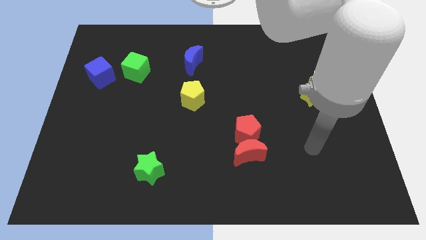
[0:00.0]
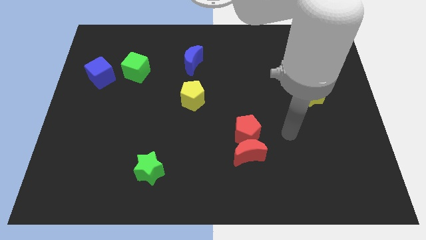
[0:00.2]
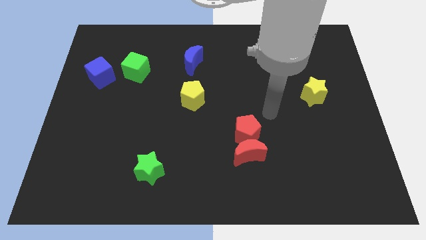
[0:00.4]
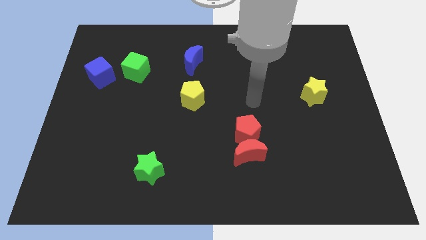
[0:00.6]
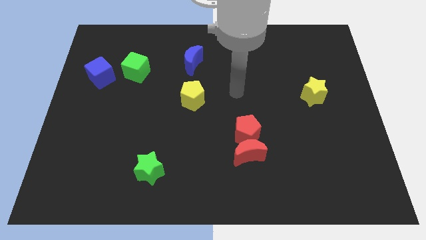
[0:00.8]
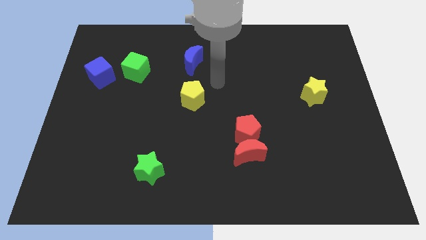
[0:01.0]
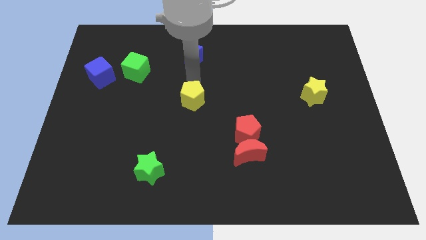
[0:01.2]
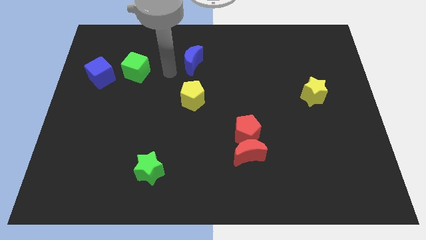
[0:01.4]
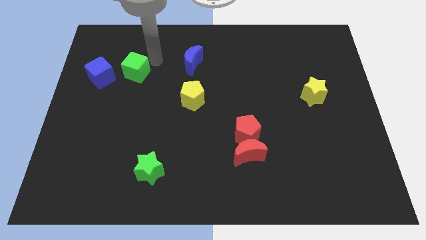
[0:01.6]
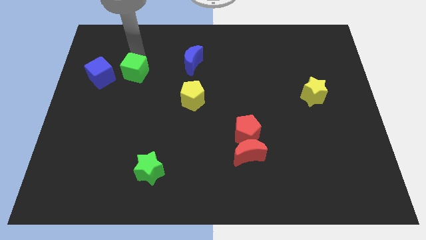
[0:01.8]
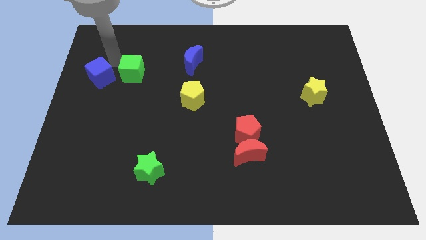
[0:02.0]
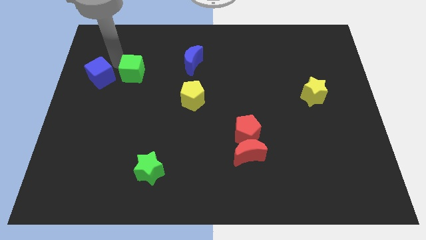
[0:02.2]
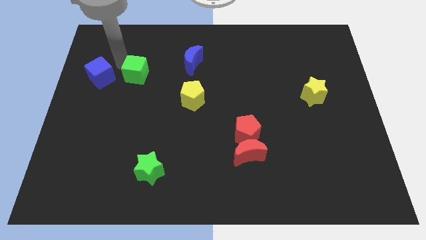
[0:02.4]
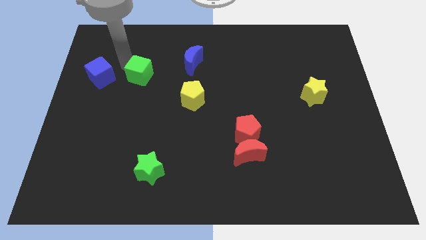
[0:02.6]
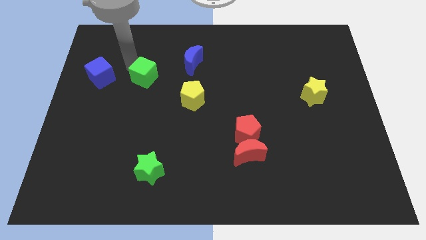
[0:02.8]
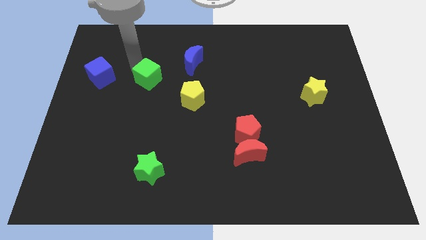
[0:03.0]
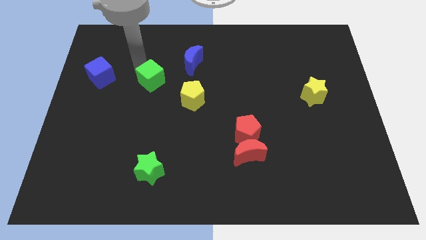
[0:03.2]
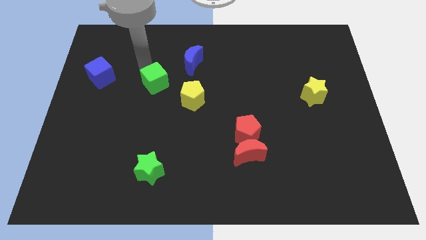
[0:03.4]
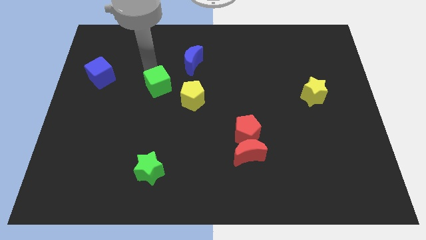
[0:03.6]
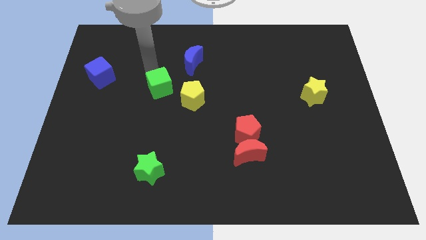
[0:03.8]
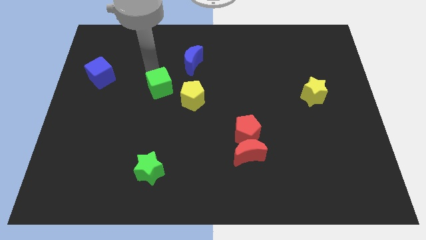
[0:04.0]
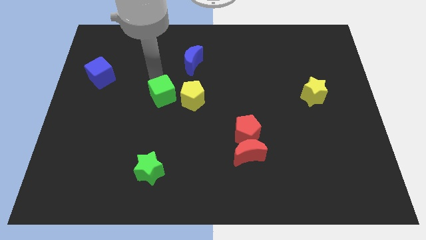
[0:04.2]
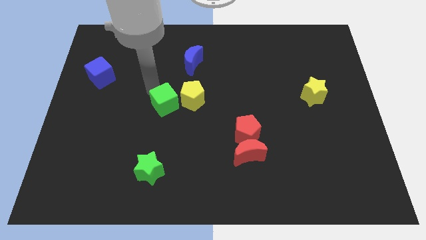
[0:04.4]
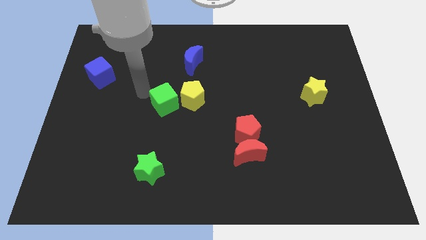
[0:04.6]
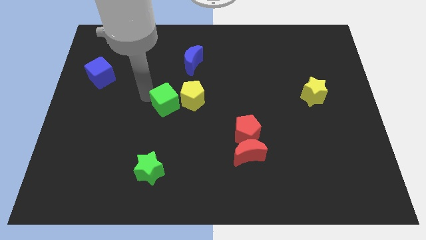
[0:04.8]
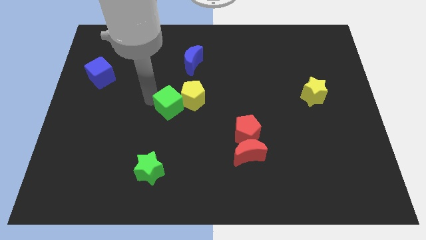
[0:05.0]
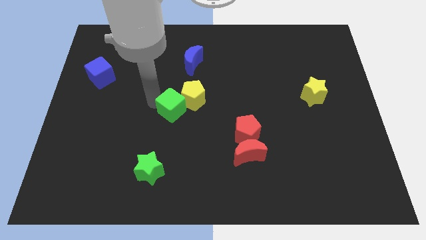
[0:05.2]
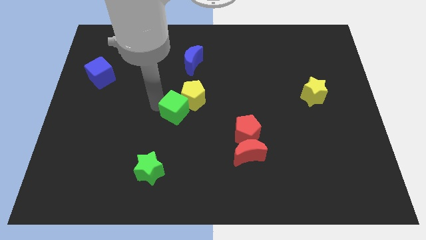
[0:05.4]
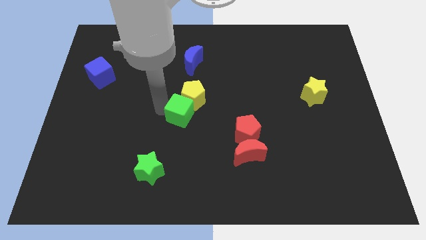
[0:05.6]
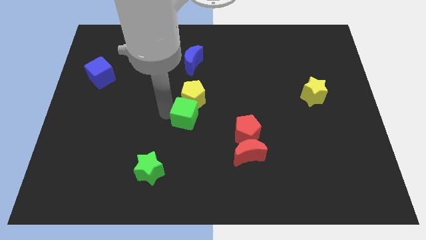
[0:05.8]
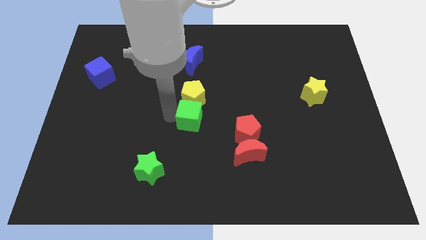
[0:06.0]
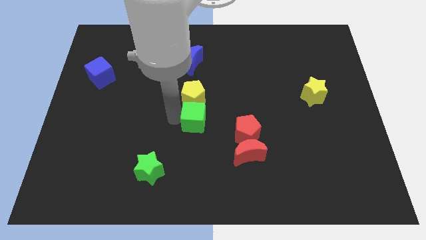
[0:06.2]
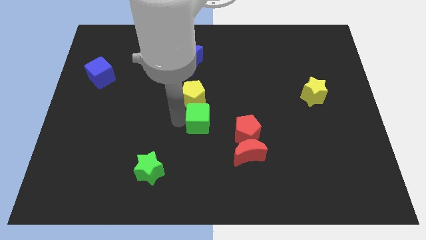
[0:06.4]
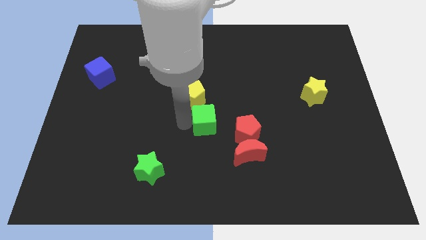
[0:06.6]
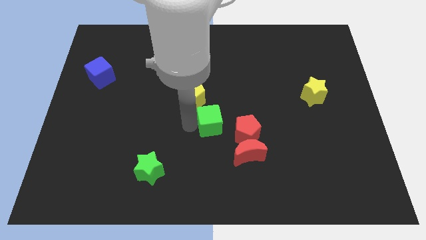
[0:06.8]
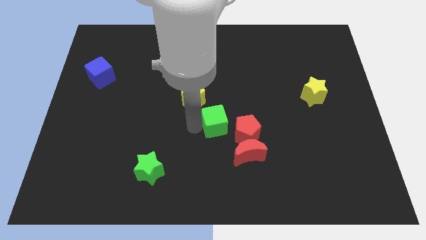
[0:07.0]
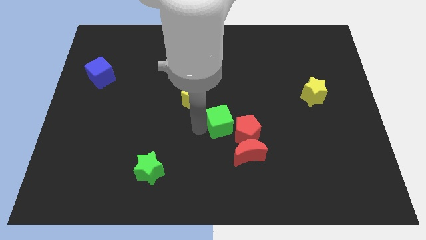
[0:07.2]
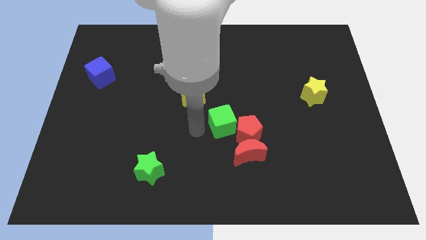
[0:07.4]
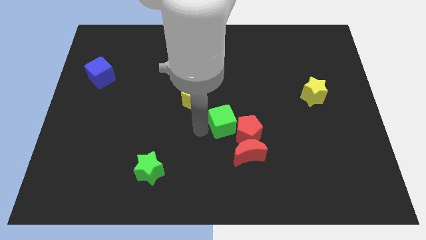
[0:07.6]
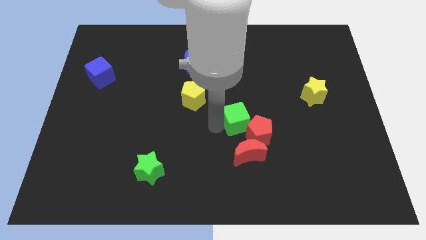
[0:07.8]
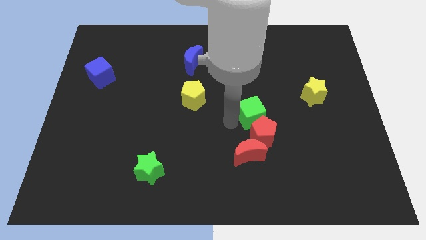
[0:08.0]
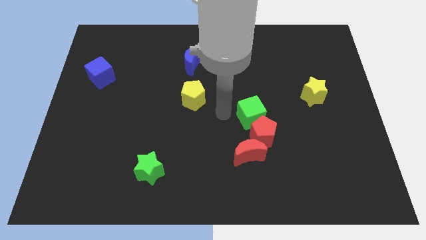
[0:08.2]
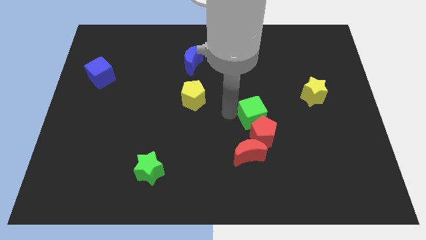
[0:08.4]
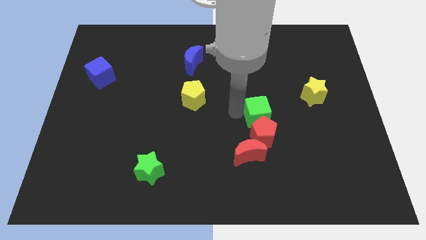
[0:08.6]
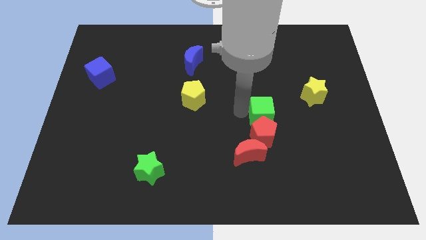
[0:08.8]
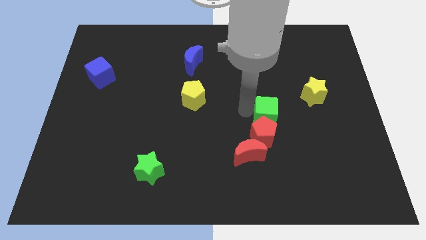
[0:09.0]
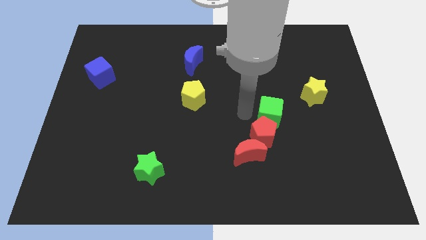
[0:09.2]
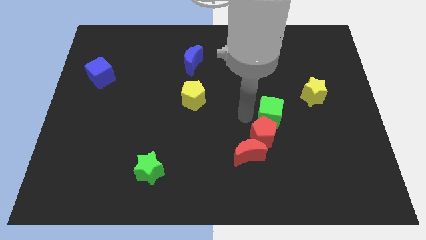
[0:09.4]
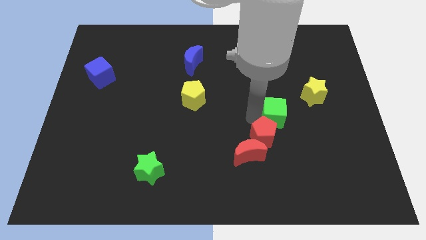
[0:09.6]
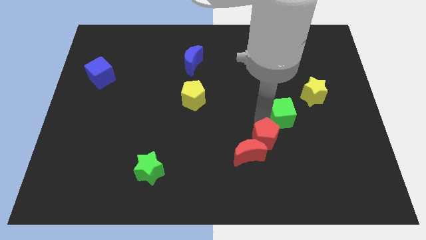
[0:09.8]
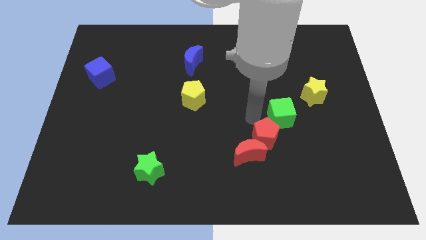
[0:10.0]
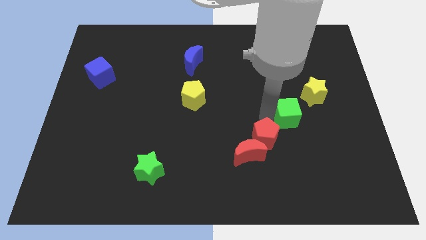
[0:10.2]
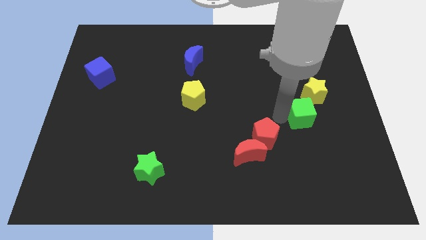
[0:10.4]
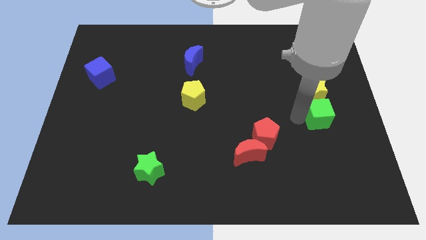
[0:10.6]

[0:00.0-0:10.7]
put the green cube to the bottom right of the yellow star

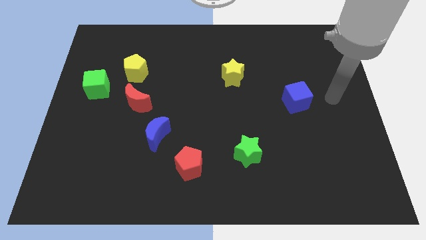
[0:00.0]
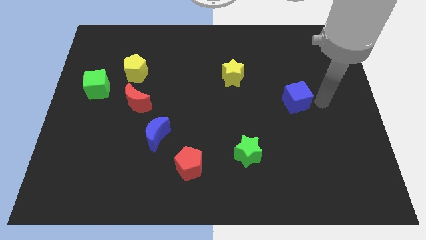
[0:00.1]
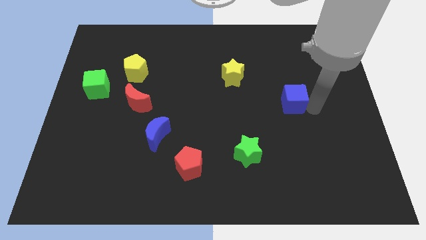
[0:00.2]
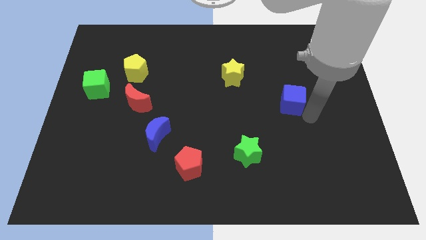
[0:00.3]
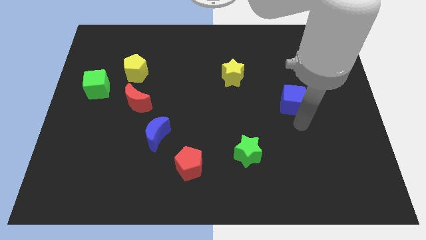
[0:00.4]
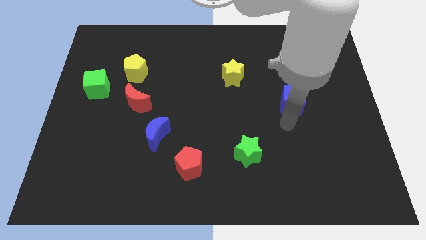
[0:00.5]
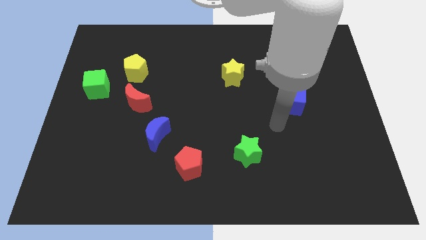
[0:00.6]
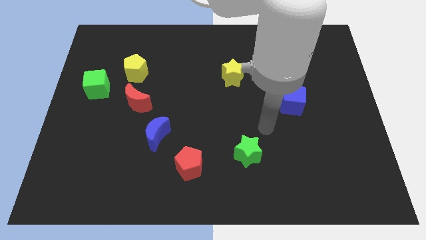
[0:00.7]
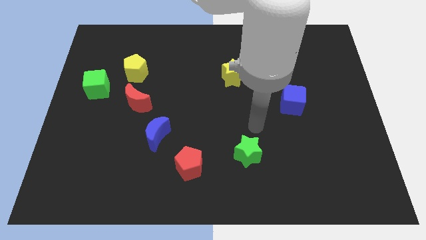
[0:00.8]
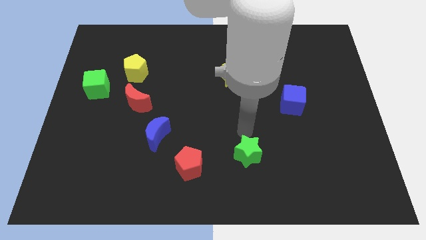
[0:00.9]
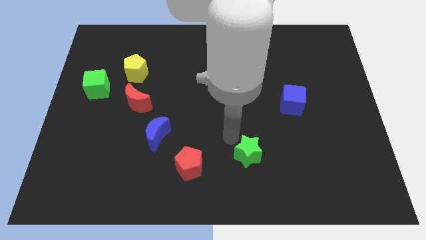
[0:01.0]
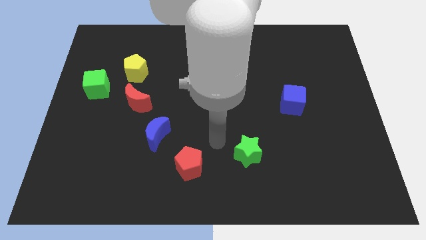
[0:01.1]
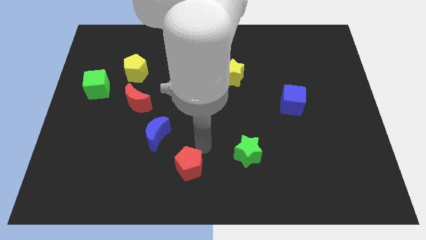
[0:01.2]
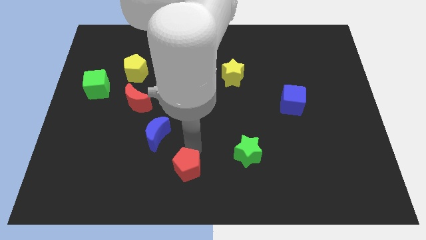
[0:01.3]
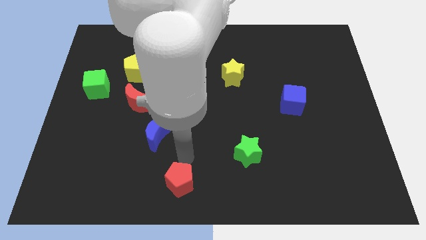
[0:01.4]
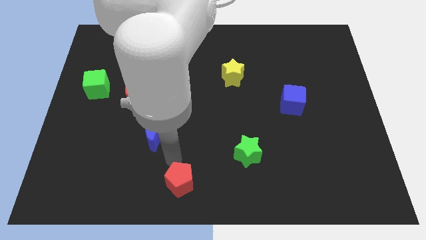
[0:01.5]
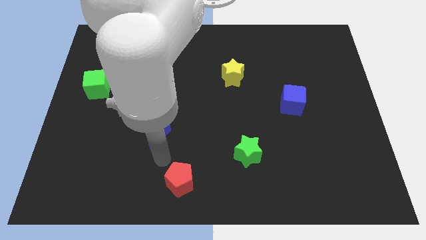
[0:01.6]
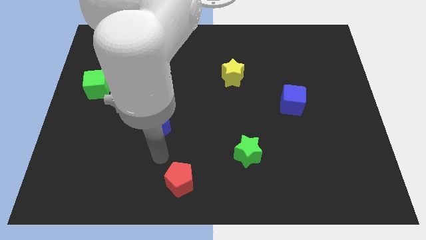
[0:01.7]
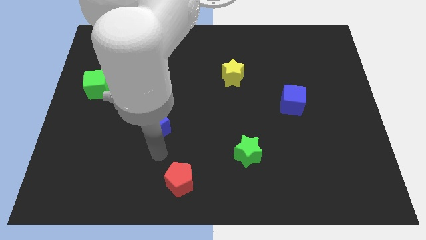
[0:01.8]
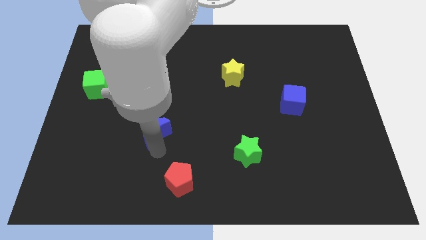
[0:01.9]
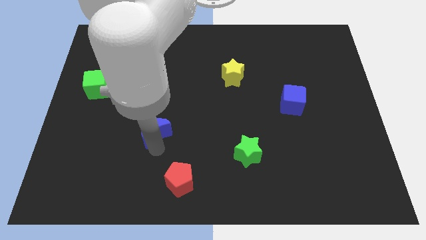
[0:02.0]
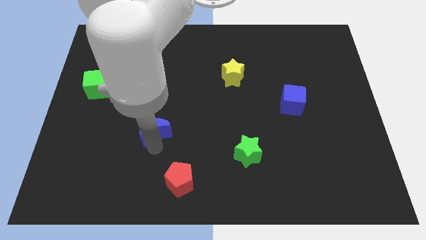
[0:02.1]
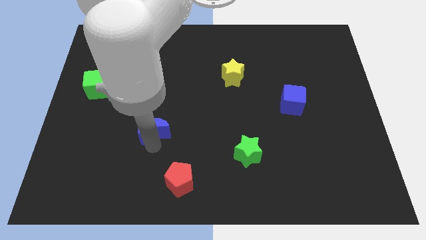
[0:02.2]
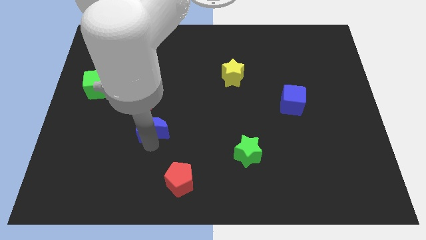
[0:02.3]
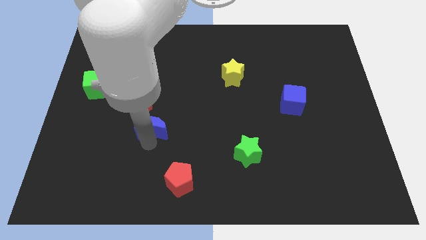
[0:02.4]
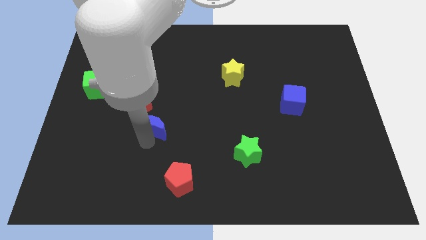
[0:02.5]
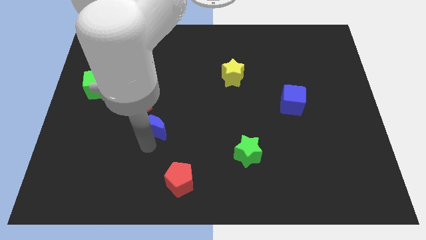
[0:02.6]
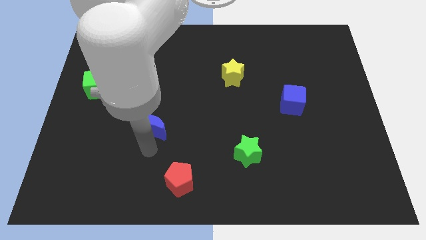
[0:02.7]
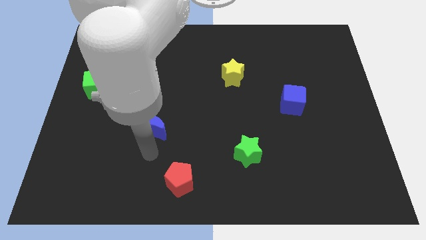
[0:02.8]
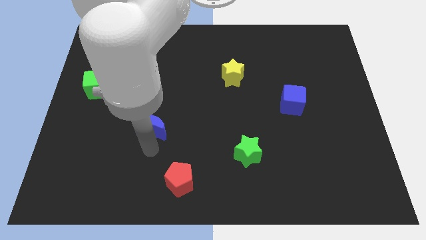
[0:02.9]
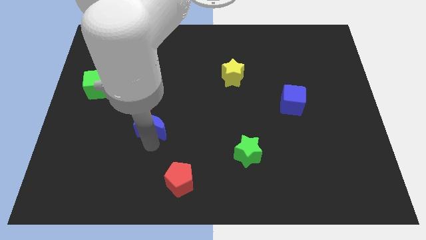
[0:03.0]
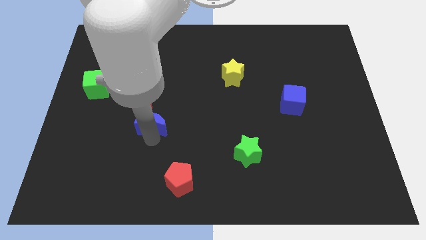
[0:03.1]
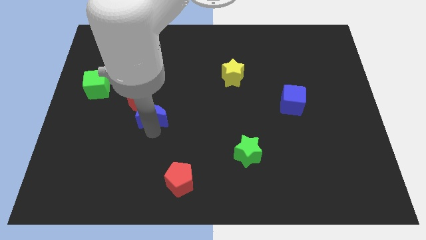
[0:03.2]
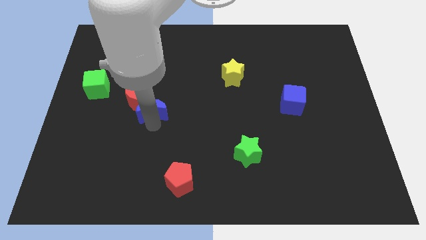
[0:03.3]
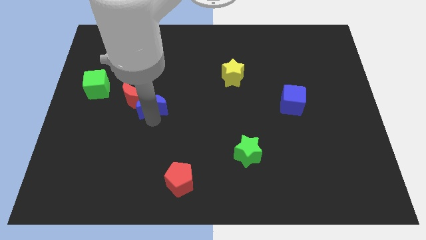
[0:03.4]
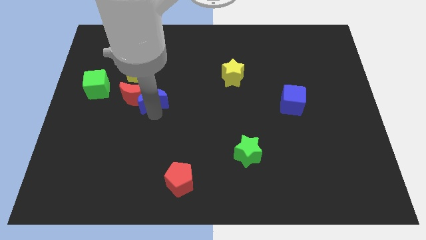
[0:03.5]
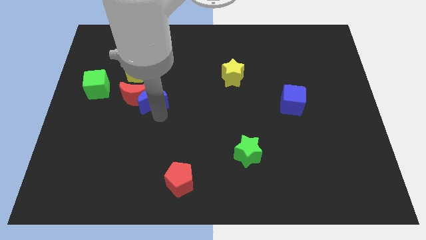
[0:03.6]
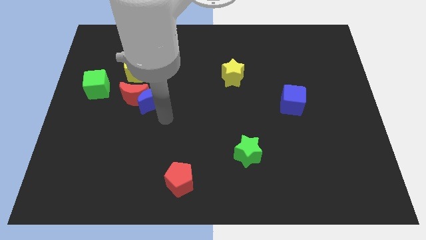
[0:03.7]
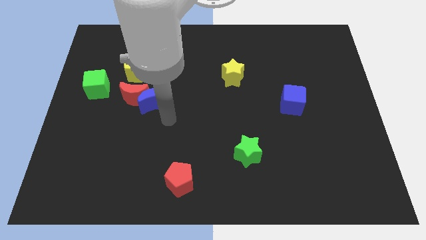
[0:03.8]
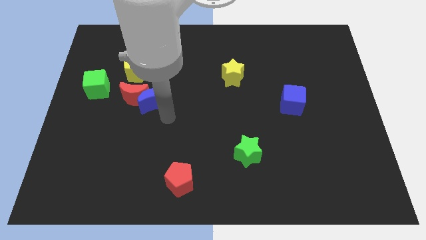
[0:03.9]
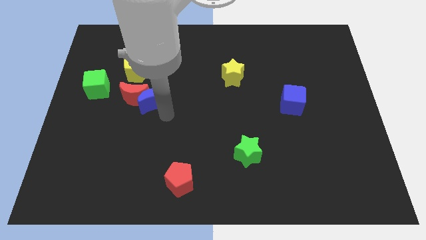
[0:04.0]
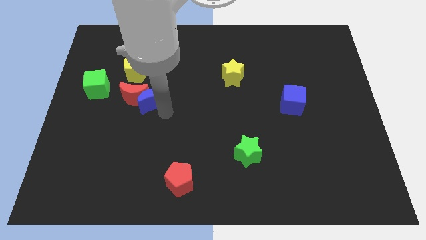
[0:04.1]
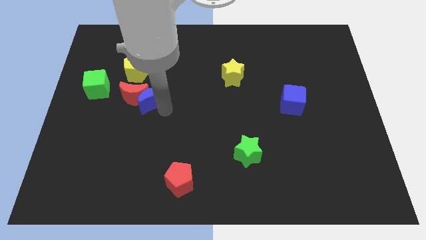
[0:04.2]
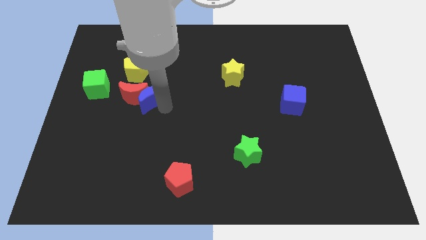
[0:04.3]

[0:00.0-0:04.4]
put the blue moon just right of the green cube
